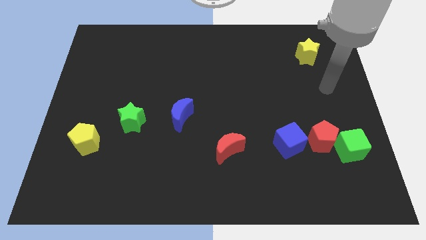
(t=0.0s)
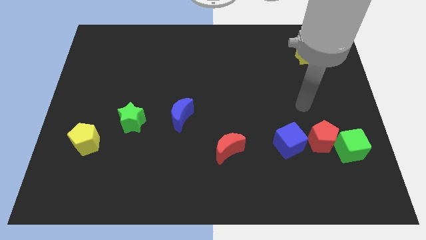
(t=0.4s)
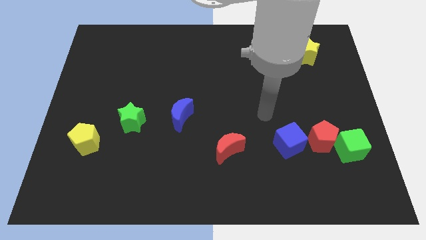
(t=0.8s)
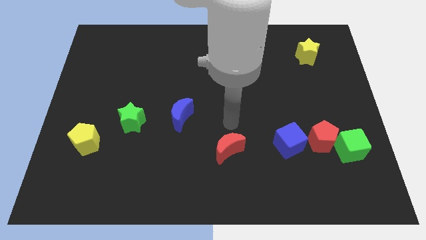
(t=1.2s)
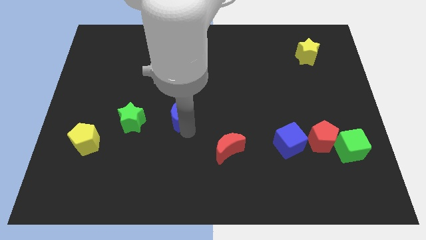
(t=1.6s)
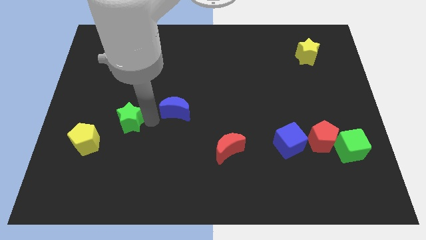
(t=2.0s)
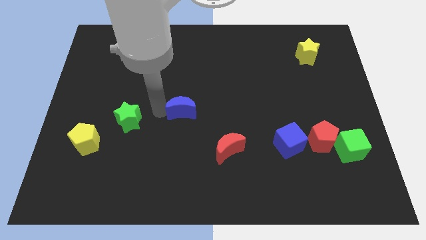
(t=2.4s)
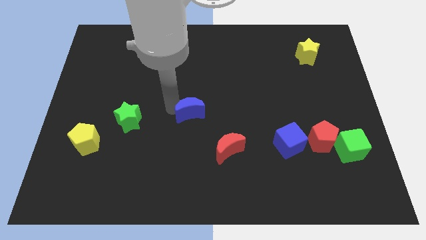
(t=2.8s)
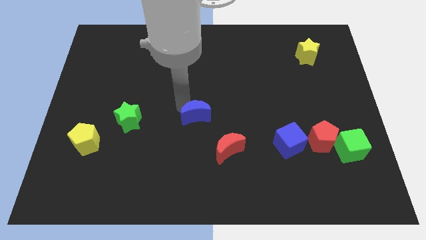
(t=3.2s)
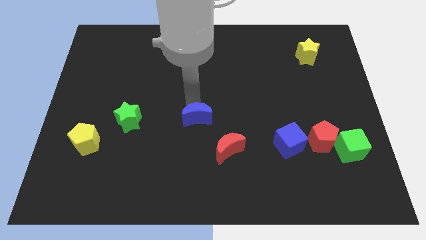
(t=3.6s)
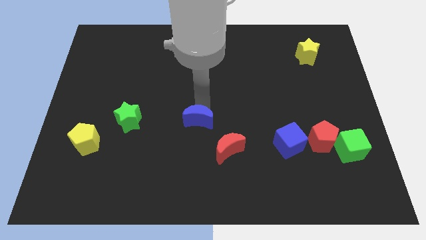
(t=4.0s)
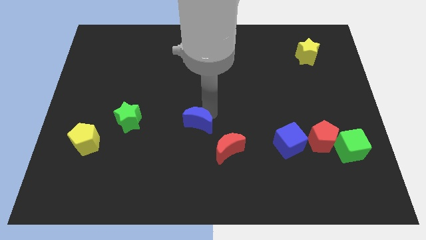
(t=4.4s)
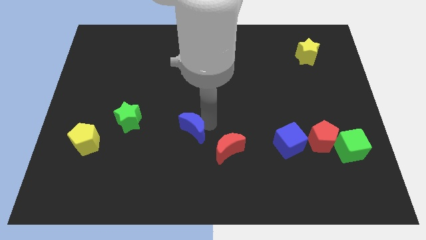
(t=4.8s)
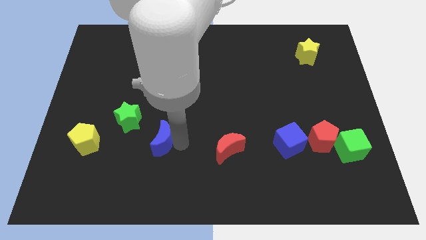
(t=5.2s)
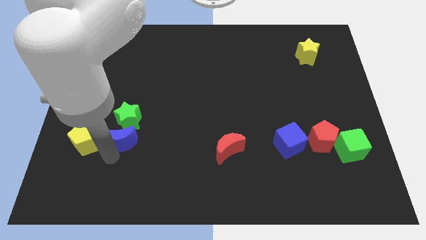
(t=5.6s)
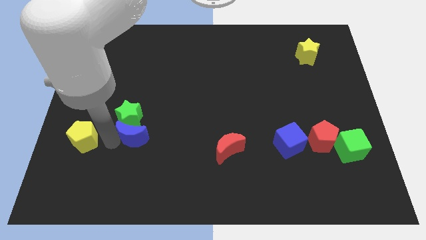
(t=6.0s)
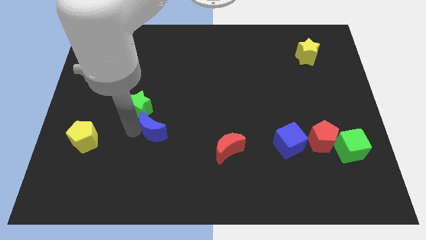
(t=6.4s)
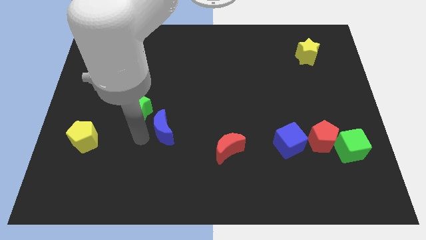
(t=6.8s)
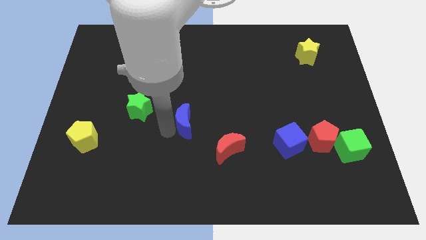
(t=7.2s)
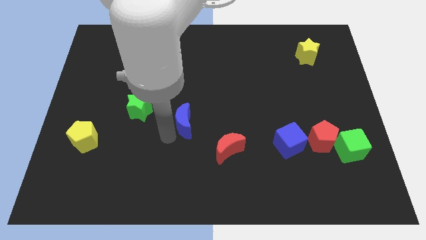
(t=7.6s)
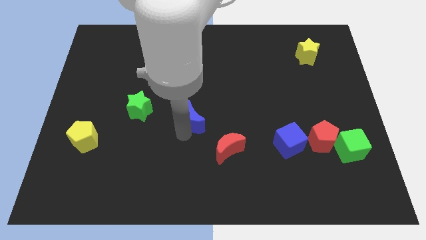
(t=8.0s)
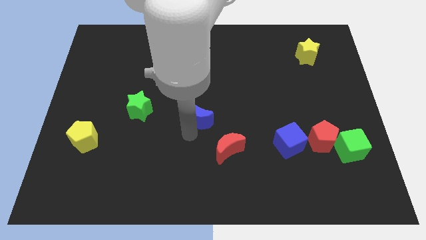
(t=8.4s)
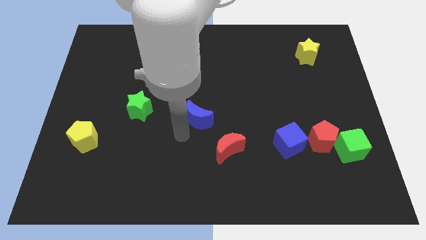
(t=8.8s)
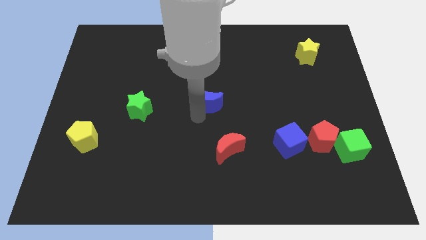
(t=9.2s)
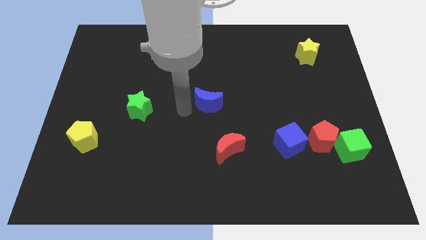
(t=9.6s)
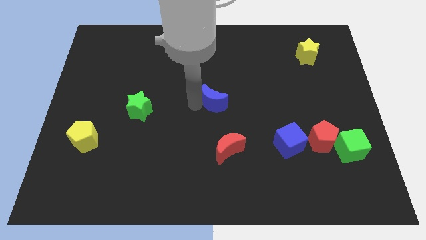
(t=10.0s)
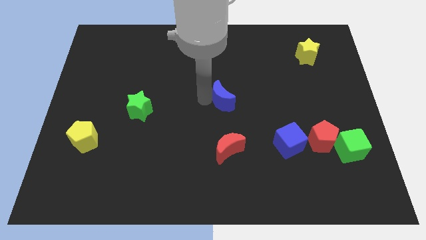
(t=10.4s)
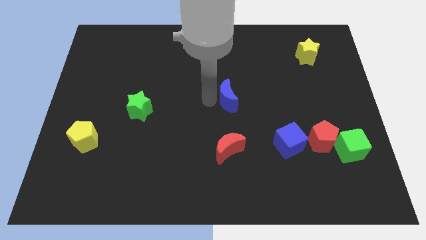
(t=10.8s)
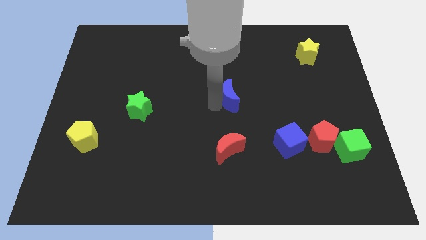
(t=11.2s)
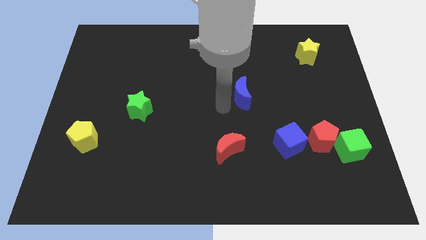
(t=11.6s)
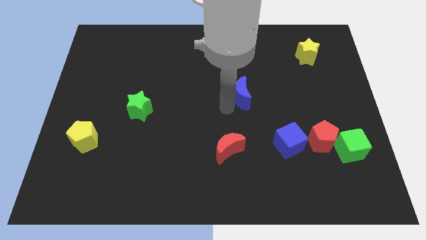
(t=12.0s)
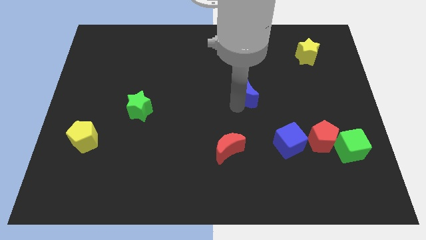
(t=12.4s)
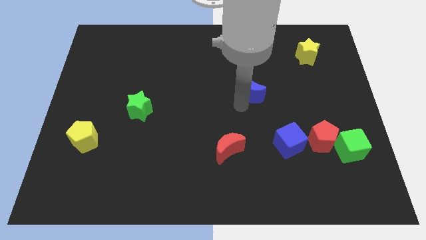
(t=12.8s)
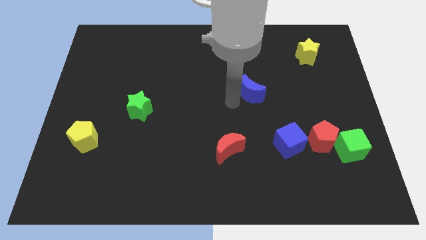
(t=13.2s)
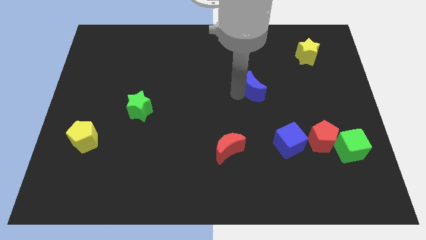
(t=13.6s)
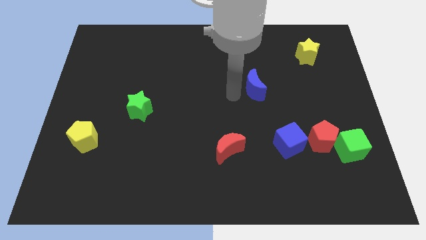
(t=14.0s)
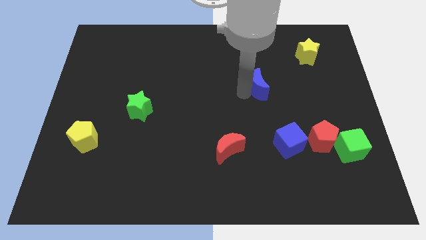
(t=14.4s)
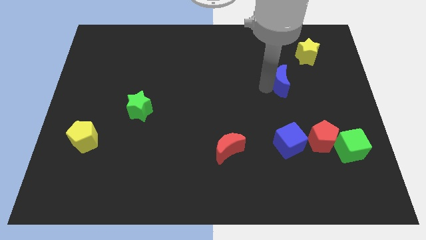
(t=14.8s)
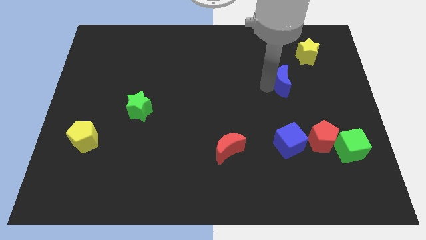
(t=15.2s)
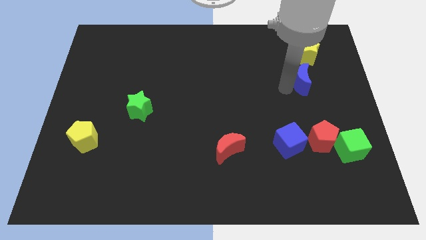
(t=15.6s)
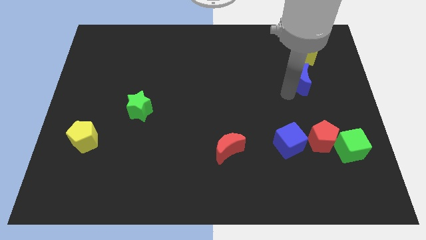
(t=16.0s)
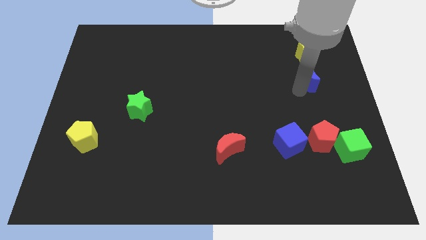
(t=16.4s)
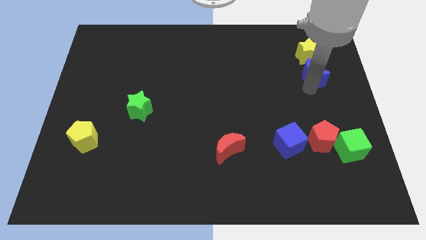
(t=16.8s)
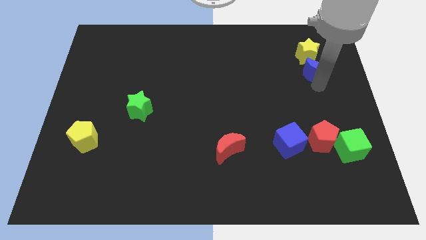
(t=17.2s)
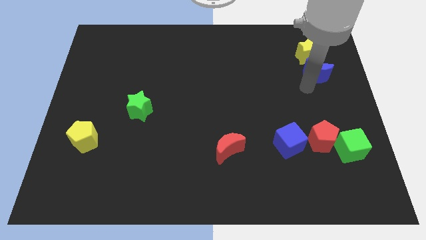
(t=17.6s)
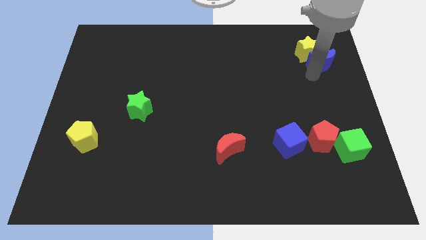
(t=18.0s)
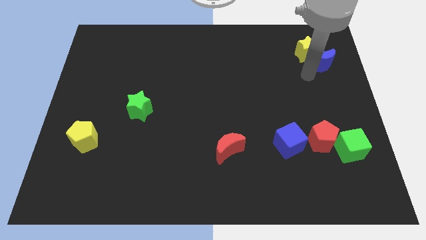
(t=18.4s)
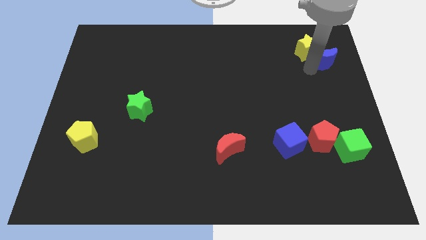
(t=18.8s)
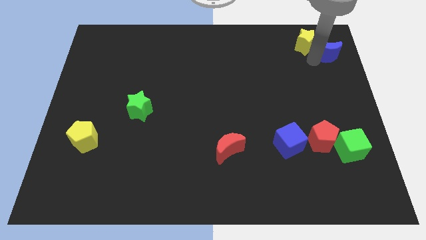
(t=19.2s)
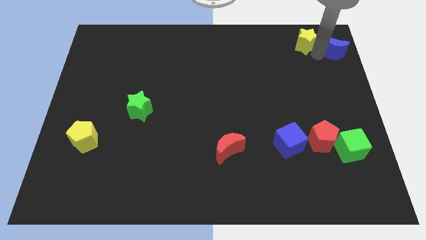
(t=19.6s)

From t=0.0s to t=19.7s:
push the blue moon to the top right

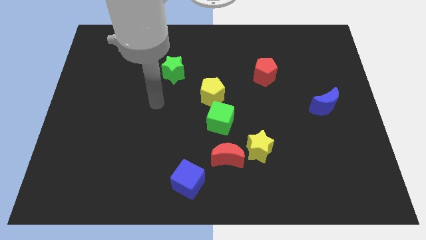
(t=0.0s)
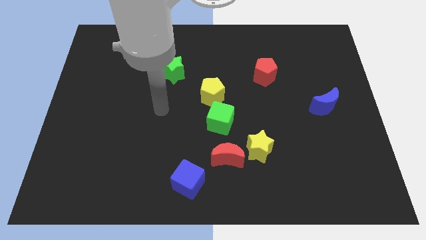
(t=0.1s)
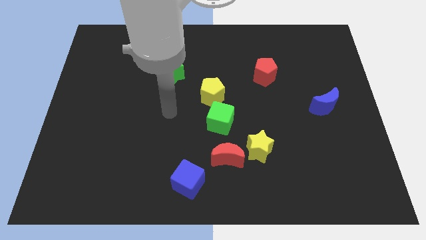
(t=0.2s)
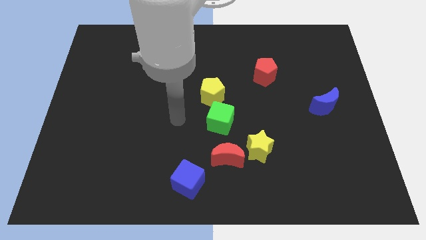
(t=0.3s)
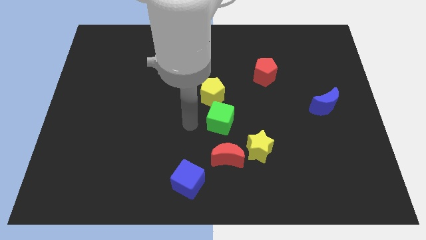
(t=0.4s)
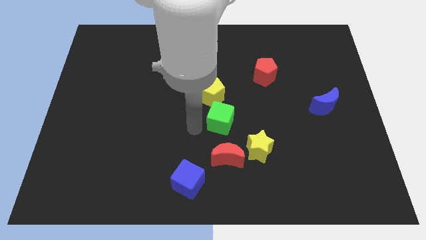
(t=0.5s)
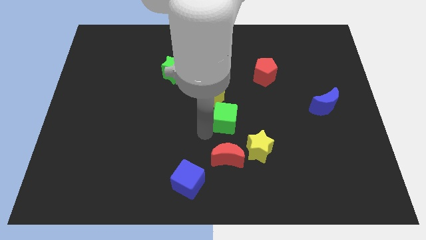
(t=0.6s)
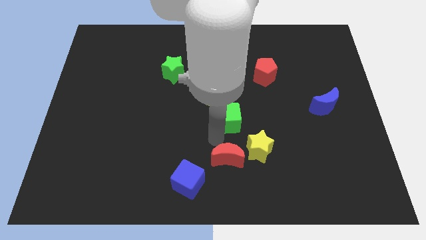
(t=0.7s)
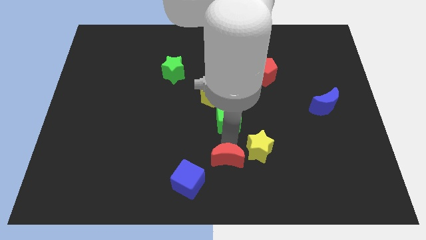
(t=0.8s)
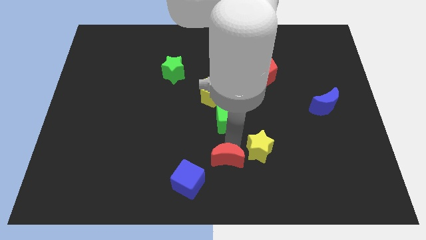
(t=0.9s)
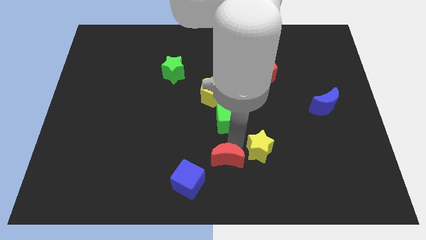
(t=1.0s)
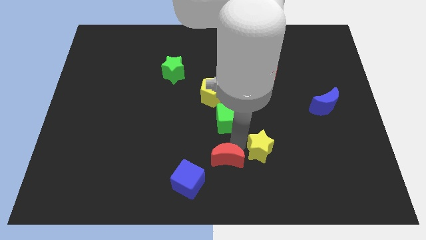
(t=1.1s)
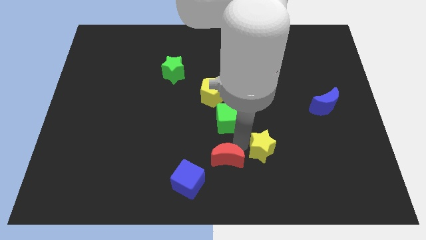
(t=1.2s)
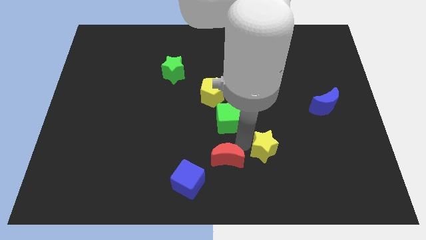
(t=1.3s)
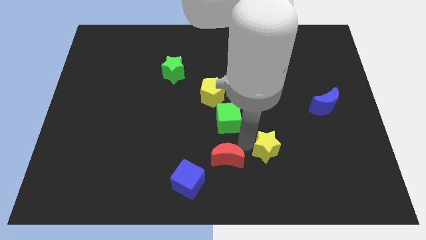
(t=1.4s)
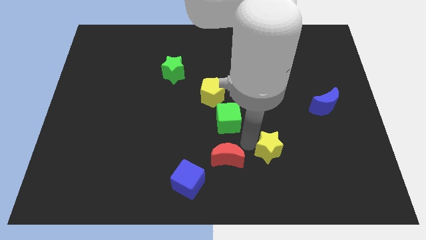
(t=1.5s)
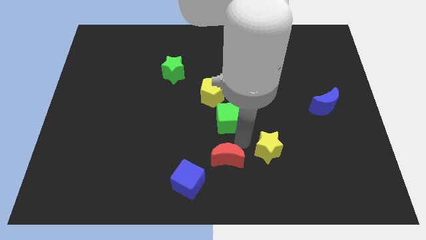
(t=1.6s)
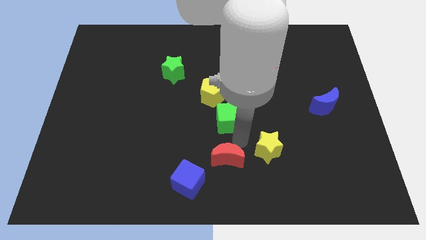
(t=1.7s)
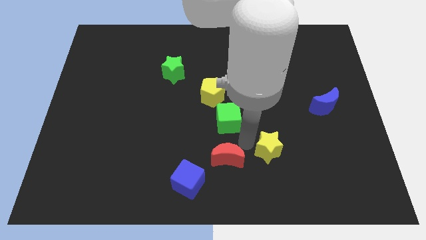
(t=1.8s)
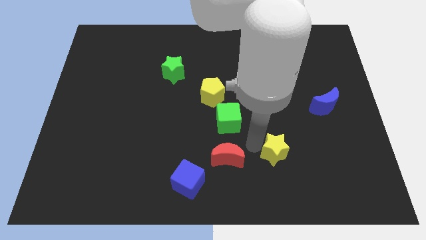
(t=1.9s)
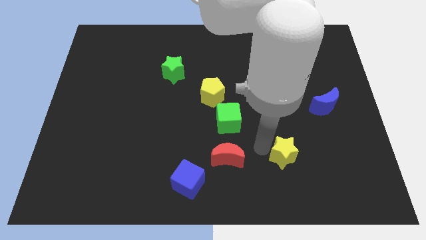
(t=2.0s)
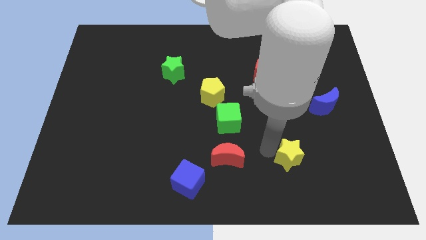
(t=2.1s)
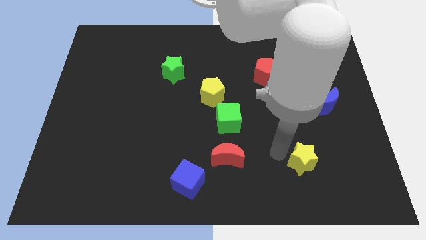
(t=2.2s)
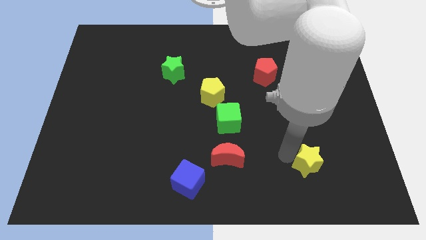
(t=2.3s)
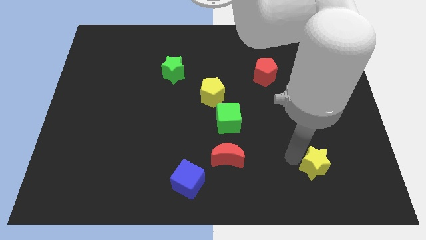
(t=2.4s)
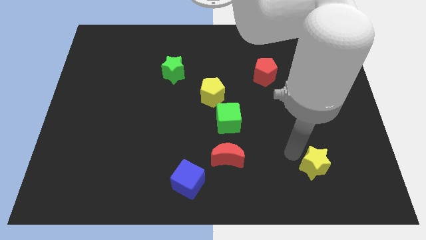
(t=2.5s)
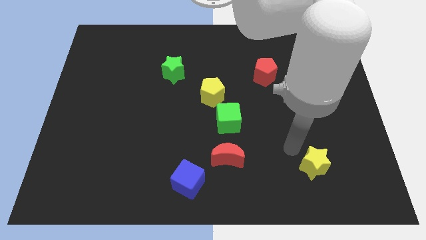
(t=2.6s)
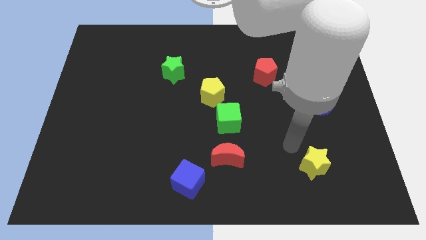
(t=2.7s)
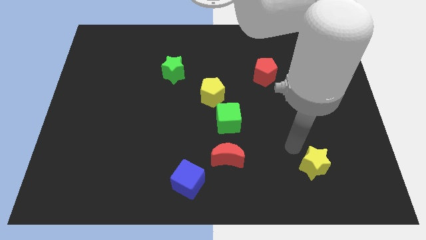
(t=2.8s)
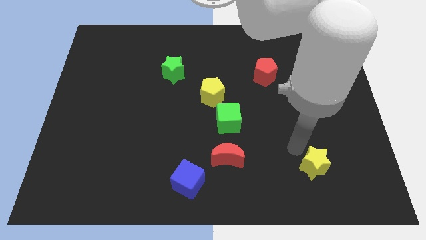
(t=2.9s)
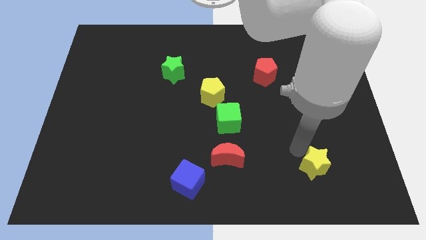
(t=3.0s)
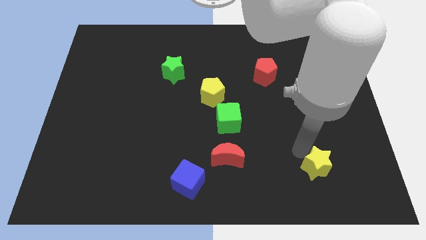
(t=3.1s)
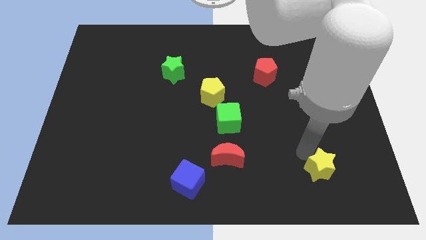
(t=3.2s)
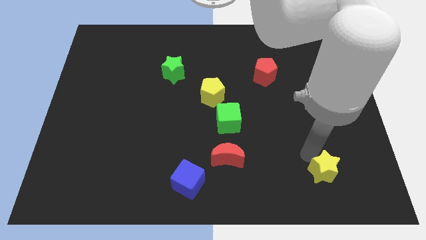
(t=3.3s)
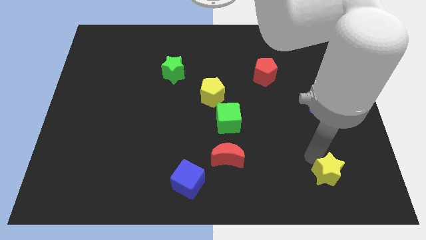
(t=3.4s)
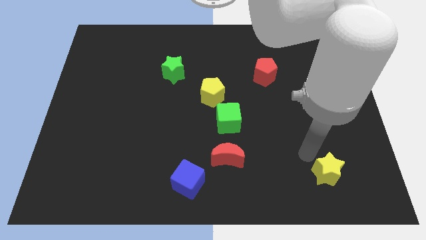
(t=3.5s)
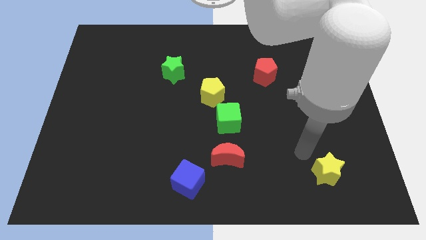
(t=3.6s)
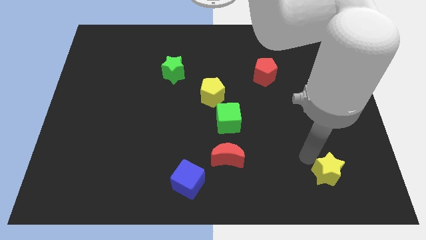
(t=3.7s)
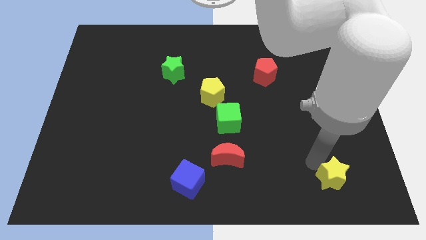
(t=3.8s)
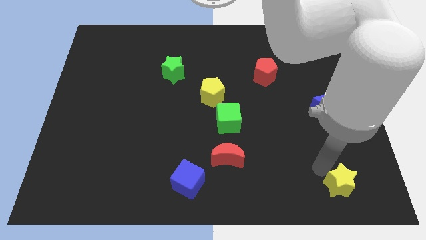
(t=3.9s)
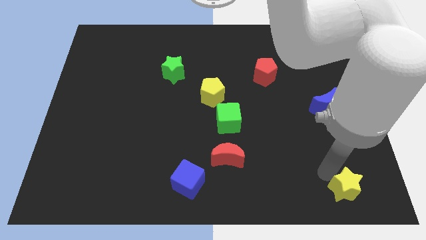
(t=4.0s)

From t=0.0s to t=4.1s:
put the yellow star to the bottom right
